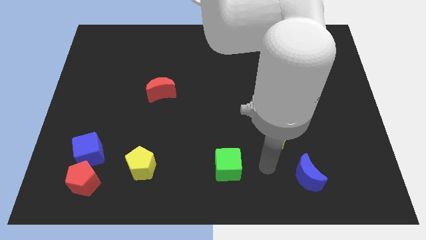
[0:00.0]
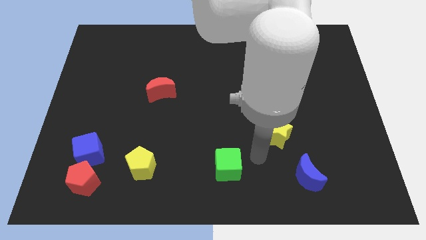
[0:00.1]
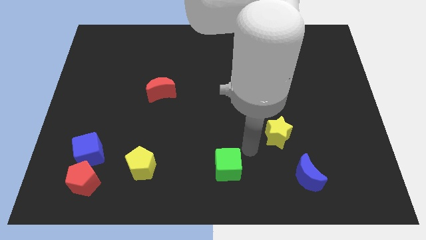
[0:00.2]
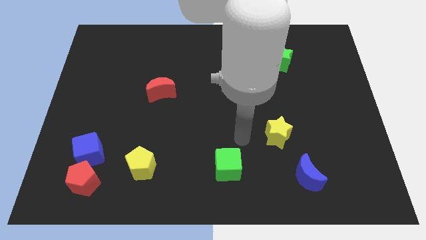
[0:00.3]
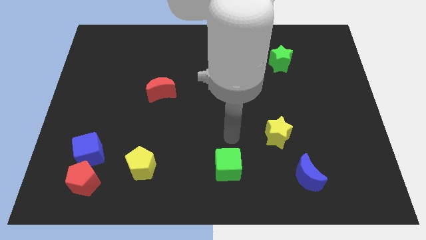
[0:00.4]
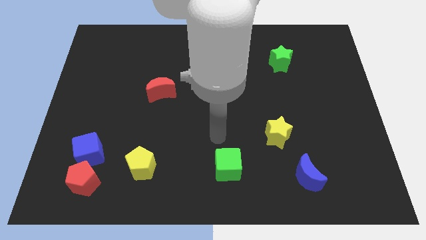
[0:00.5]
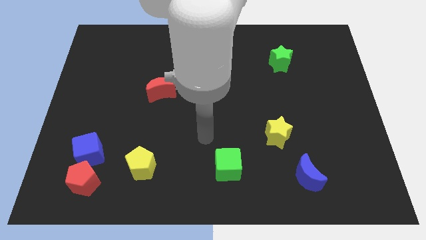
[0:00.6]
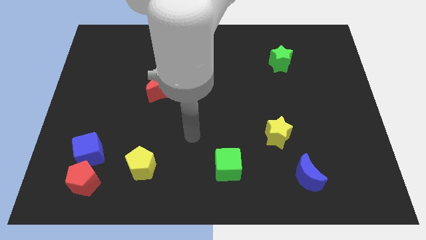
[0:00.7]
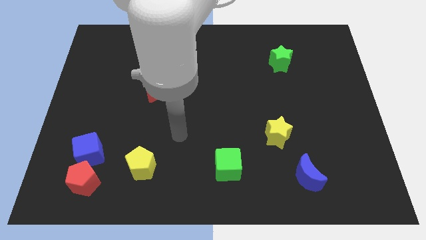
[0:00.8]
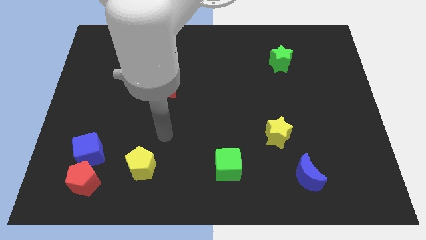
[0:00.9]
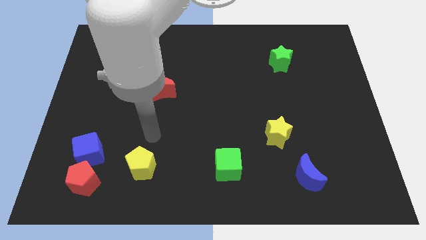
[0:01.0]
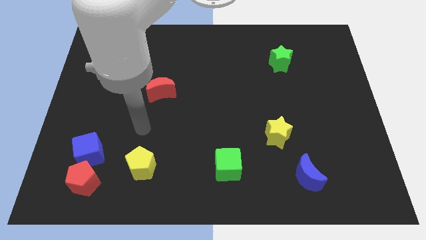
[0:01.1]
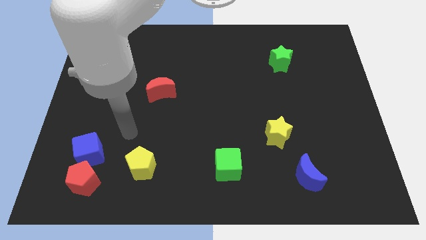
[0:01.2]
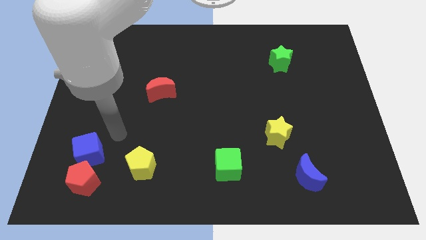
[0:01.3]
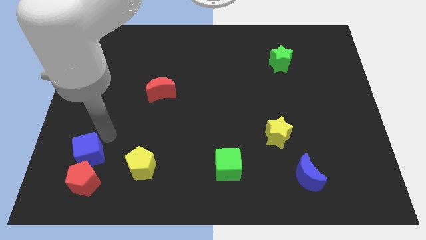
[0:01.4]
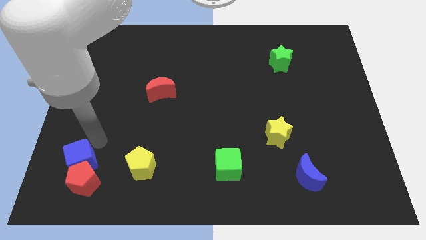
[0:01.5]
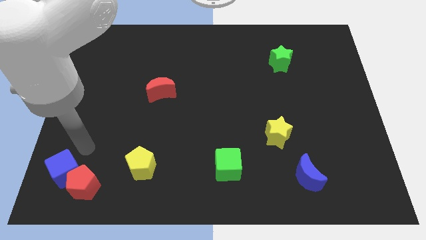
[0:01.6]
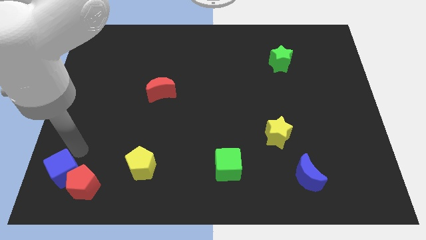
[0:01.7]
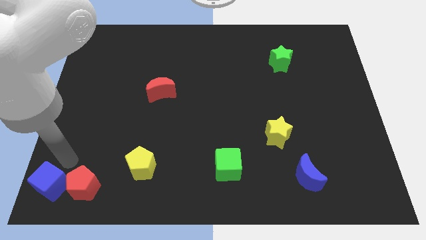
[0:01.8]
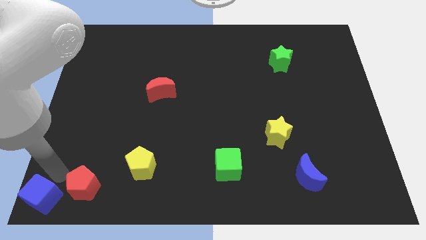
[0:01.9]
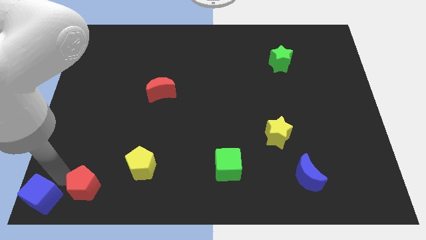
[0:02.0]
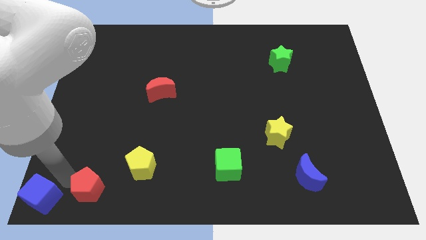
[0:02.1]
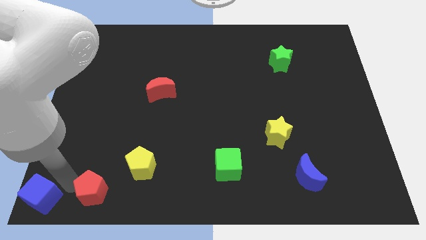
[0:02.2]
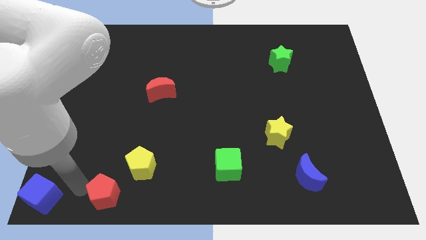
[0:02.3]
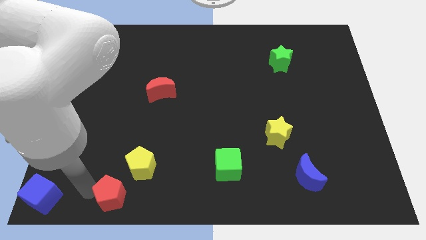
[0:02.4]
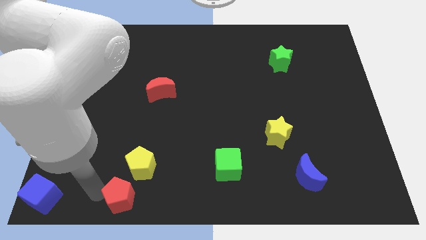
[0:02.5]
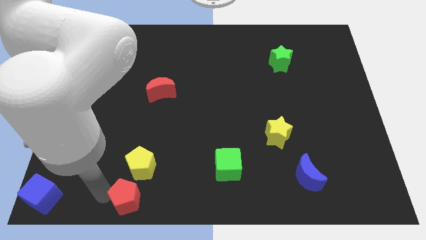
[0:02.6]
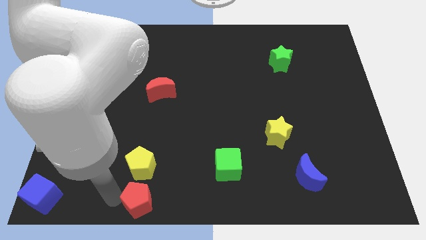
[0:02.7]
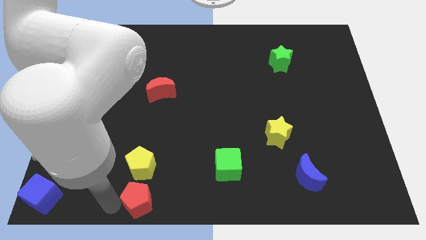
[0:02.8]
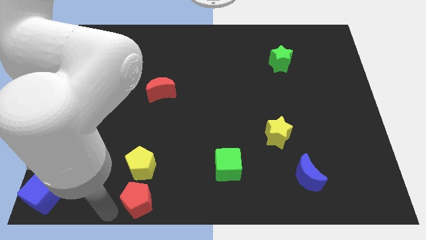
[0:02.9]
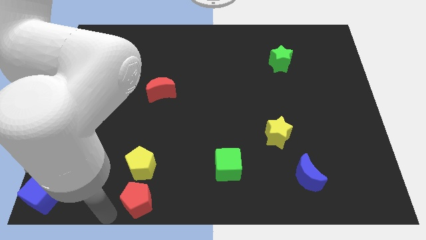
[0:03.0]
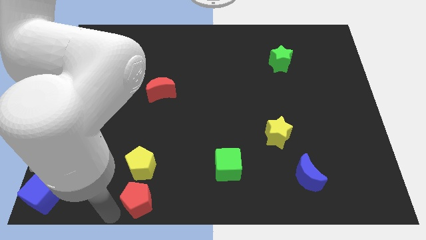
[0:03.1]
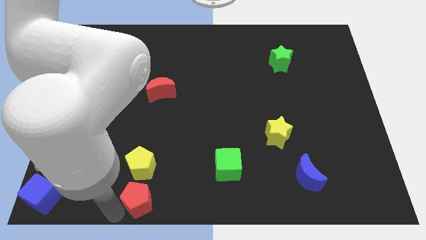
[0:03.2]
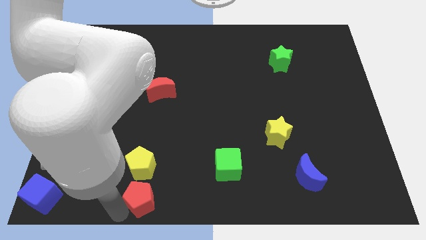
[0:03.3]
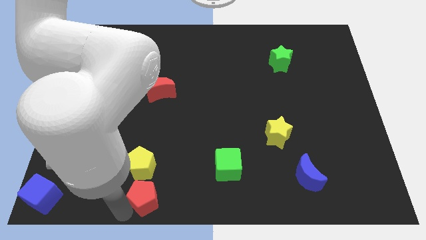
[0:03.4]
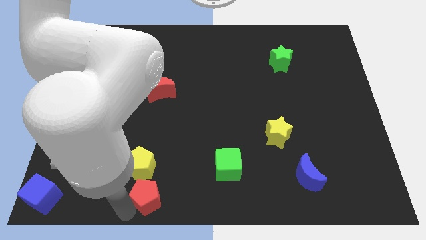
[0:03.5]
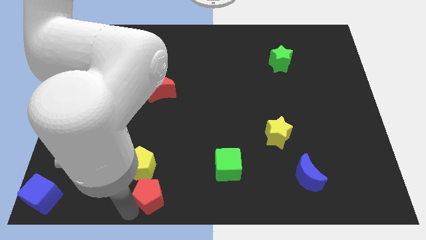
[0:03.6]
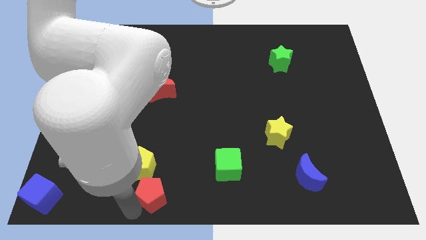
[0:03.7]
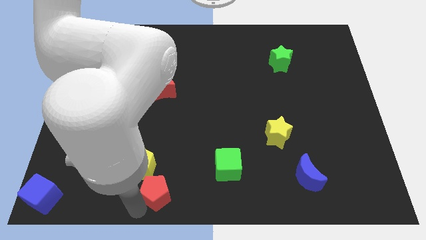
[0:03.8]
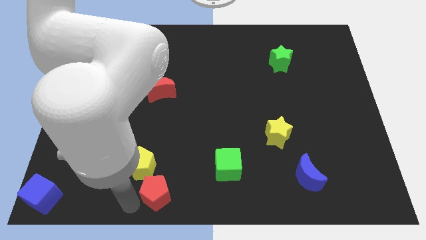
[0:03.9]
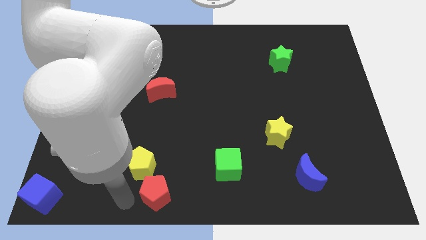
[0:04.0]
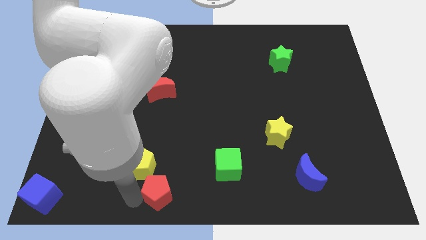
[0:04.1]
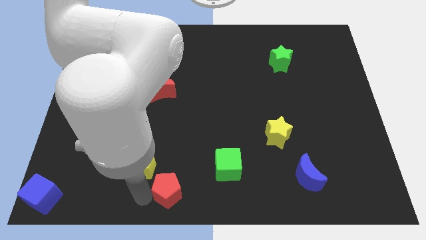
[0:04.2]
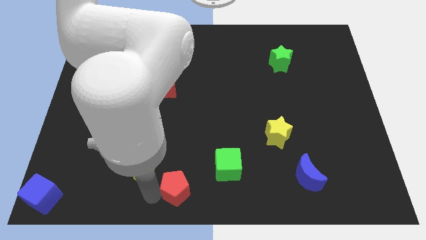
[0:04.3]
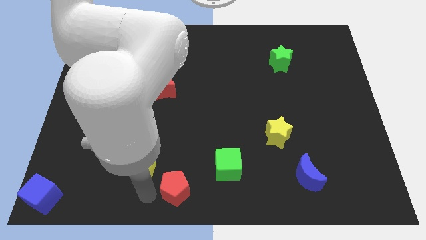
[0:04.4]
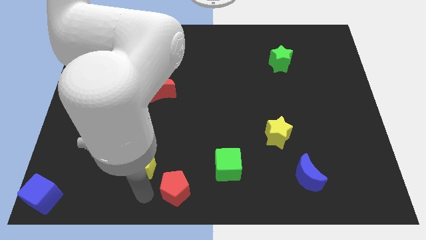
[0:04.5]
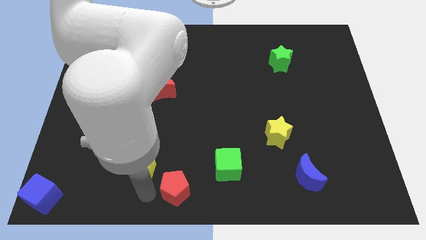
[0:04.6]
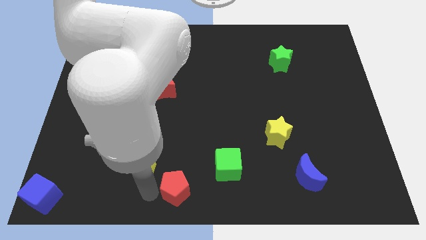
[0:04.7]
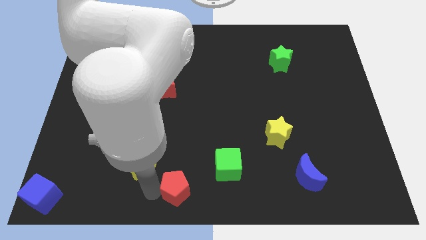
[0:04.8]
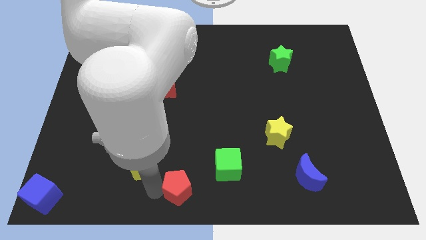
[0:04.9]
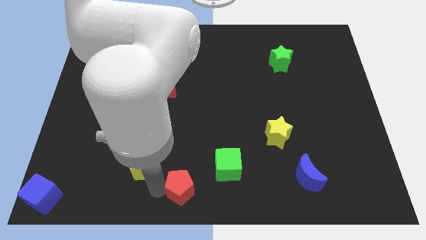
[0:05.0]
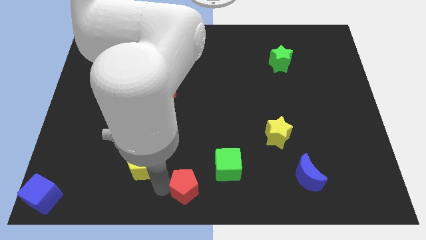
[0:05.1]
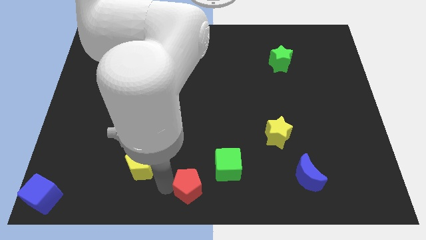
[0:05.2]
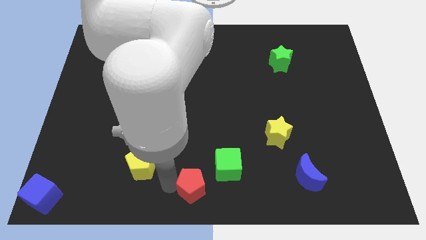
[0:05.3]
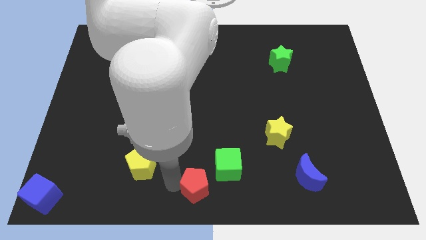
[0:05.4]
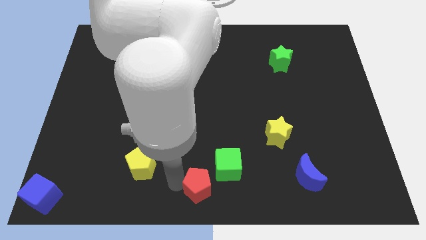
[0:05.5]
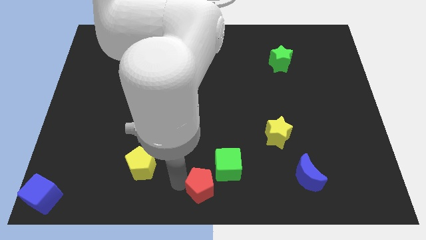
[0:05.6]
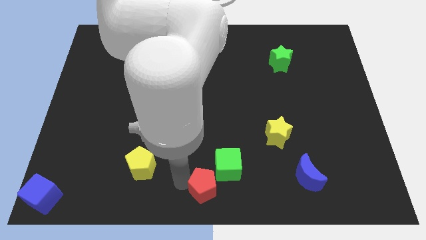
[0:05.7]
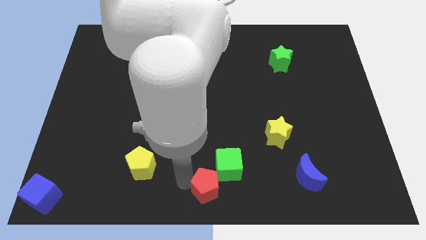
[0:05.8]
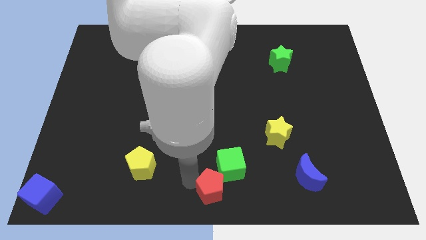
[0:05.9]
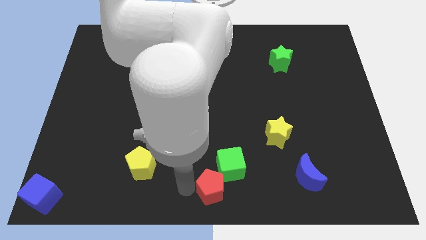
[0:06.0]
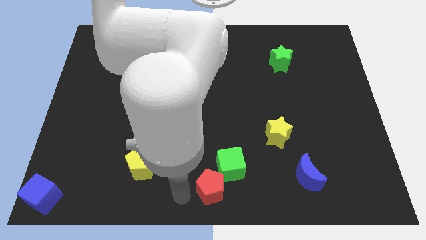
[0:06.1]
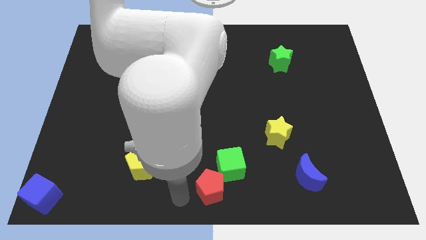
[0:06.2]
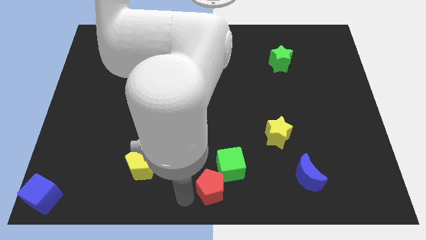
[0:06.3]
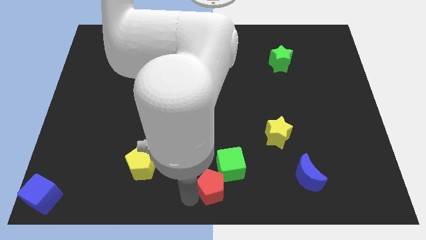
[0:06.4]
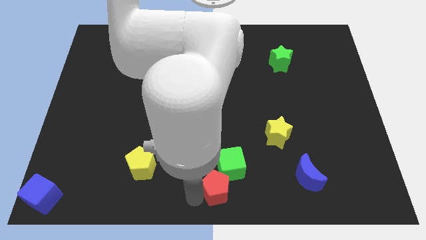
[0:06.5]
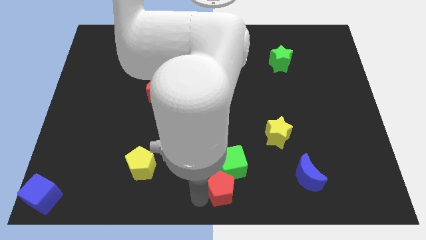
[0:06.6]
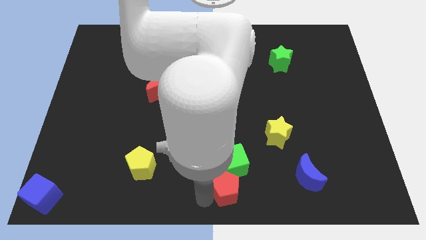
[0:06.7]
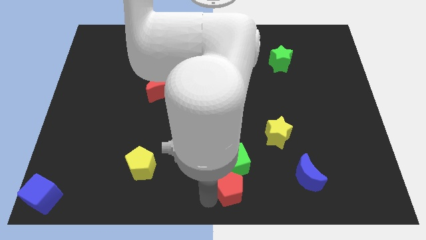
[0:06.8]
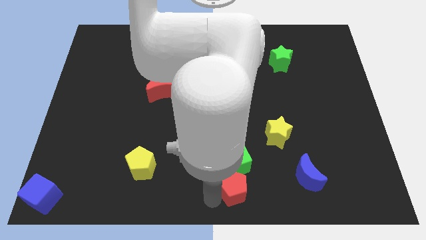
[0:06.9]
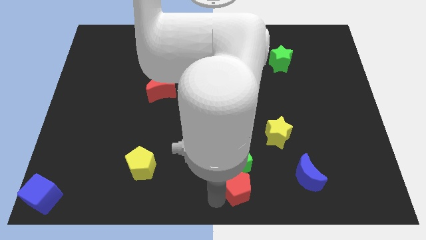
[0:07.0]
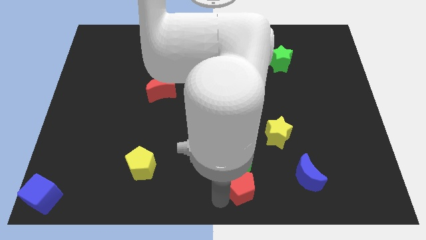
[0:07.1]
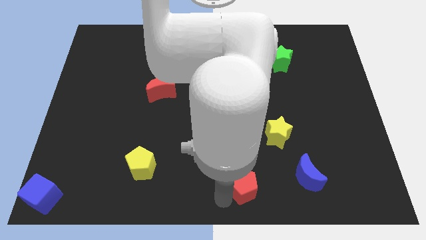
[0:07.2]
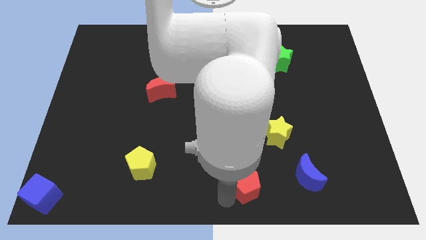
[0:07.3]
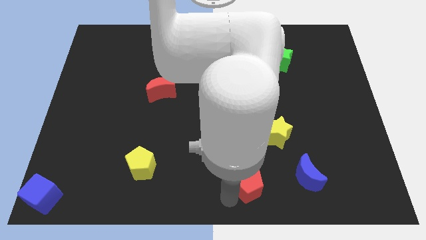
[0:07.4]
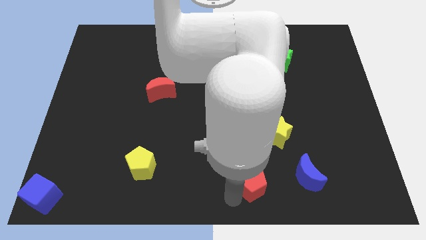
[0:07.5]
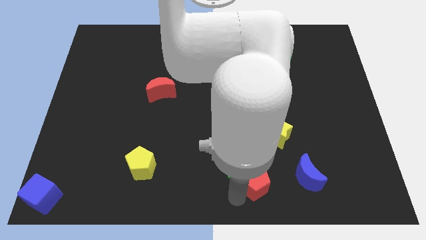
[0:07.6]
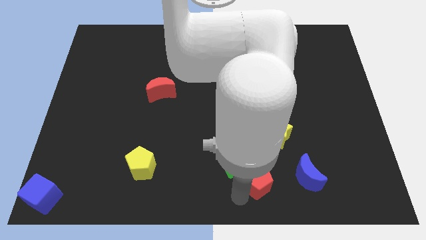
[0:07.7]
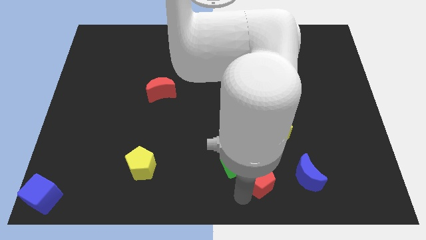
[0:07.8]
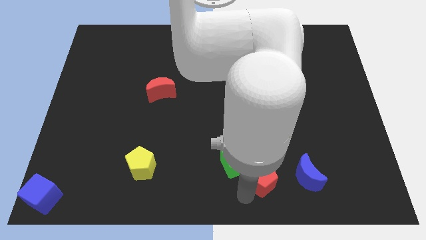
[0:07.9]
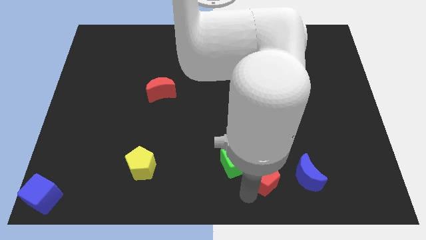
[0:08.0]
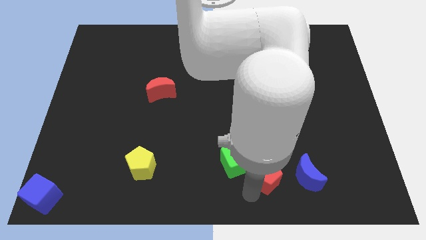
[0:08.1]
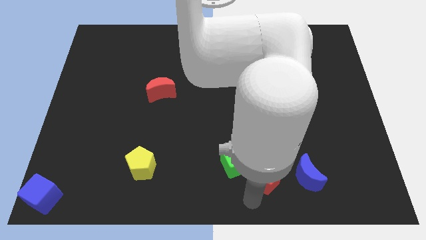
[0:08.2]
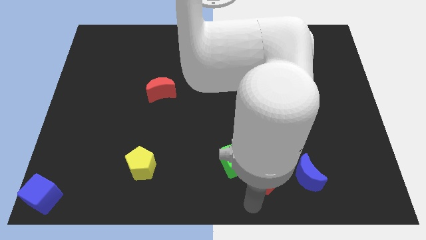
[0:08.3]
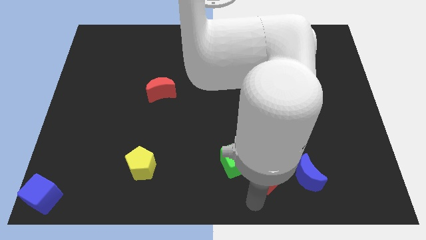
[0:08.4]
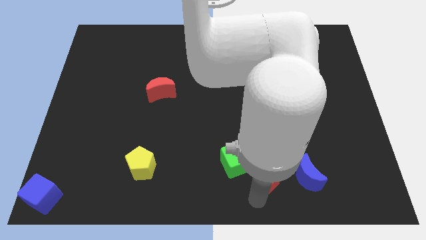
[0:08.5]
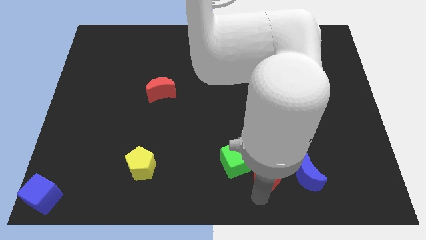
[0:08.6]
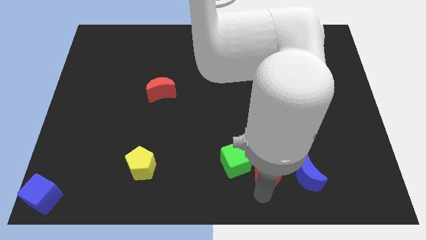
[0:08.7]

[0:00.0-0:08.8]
slide the red pentagon to the top left side of the blue moon

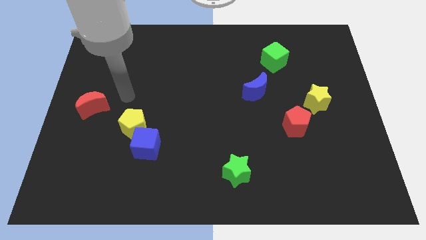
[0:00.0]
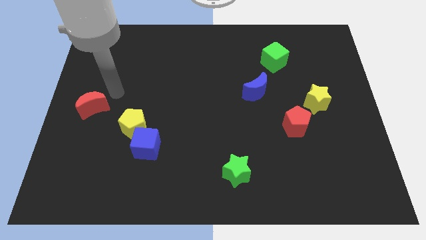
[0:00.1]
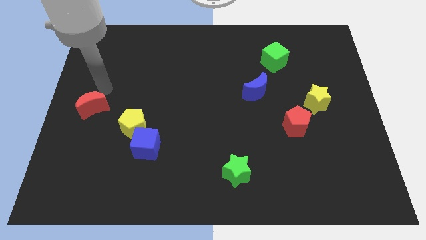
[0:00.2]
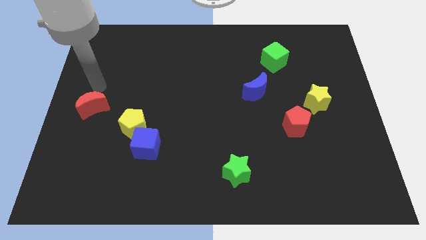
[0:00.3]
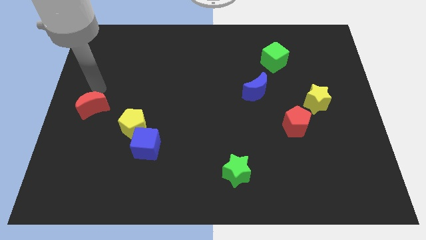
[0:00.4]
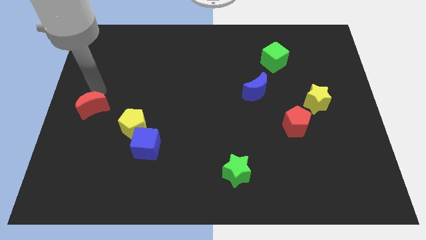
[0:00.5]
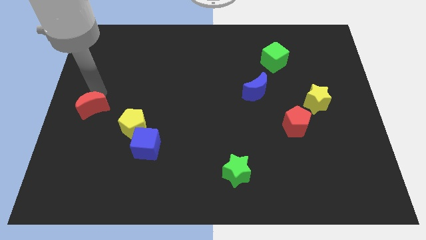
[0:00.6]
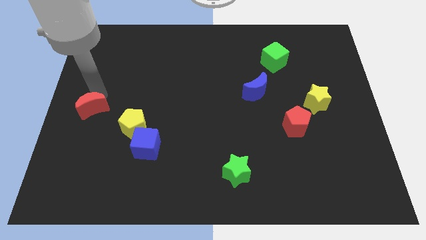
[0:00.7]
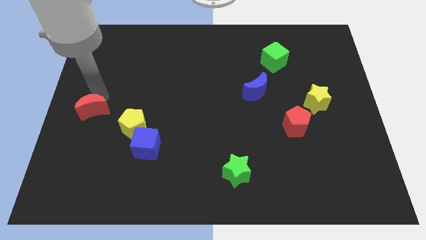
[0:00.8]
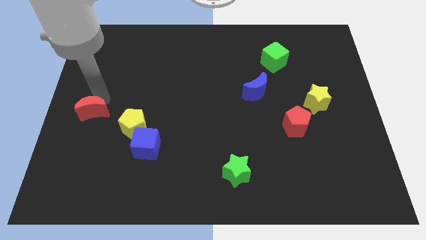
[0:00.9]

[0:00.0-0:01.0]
slide the red moon left of the yellow pentagon
